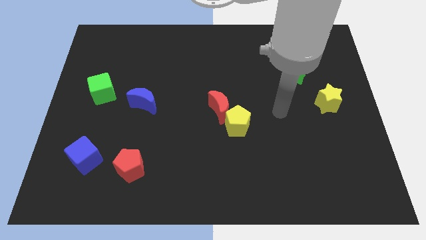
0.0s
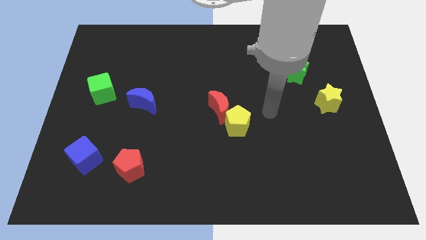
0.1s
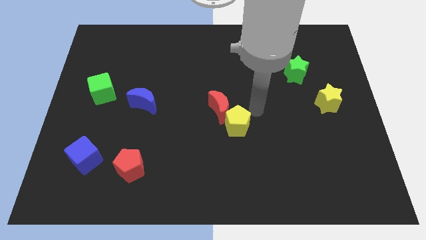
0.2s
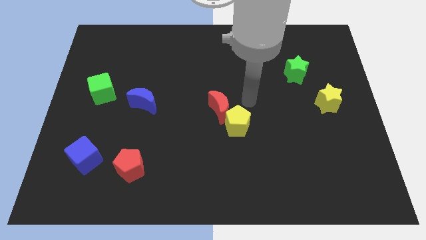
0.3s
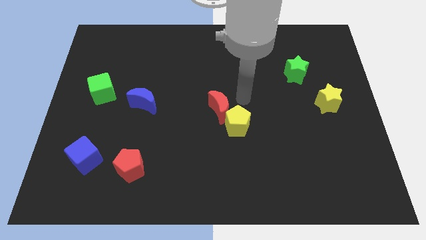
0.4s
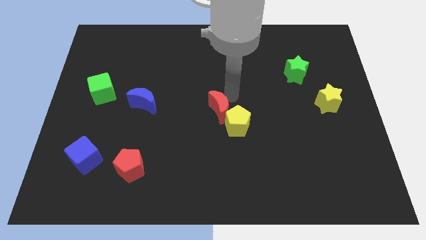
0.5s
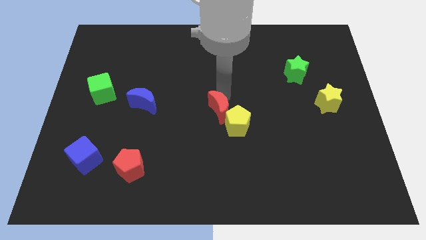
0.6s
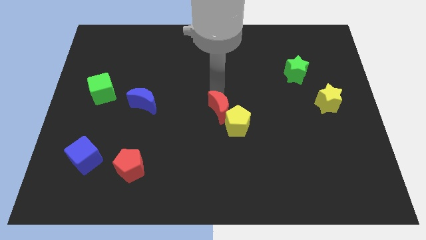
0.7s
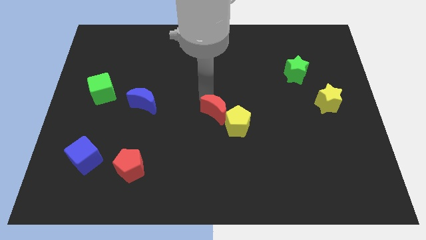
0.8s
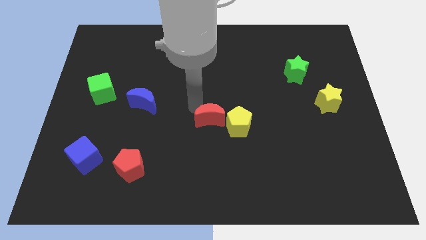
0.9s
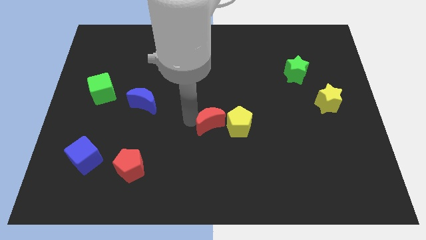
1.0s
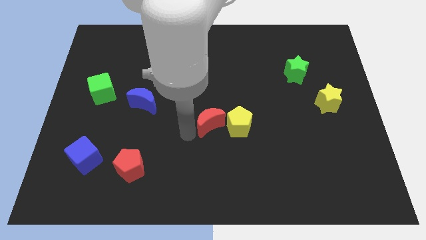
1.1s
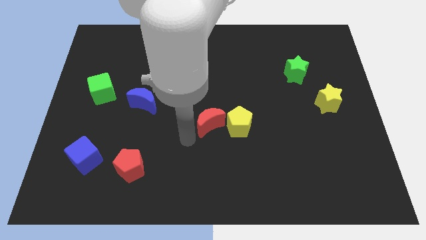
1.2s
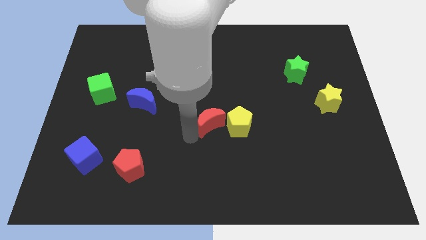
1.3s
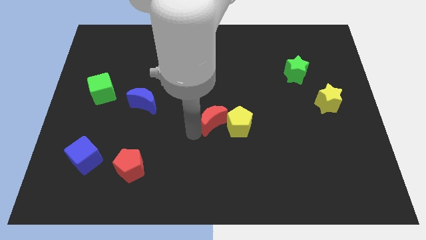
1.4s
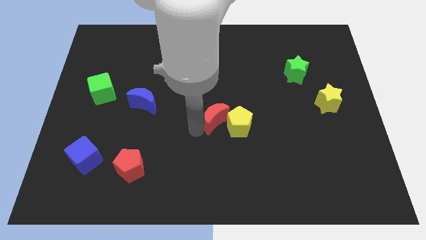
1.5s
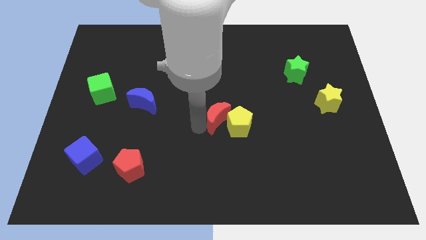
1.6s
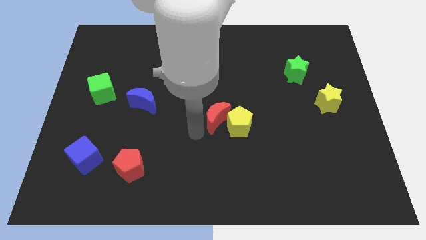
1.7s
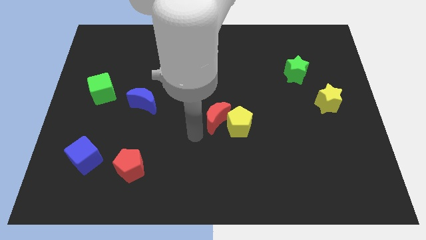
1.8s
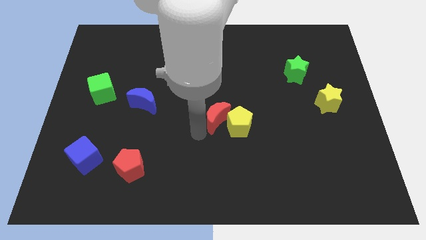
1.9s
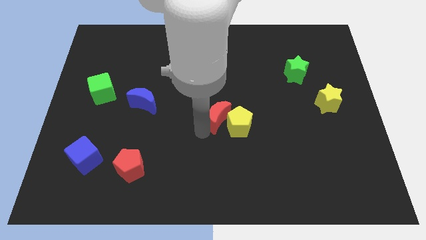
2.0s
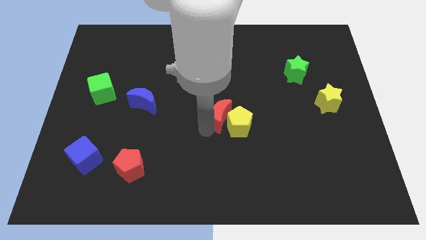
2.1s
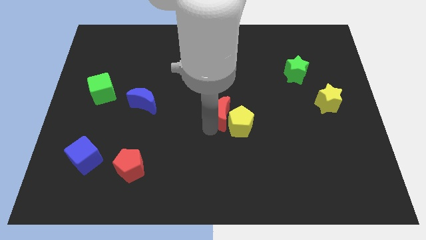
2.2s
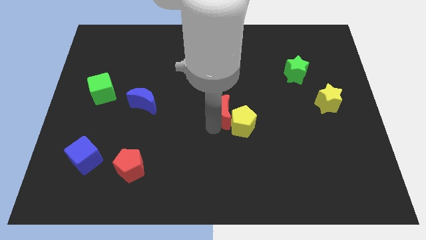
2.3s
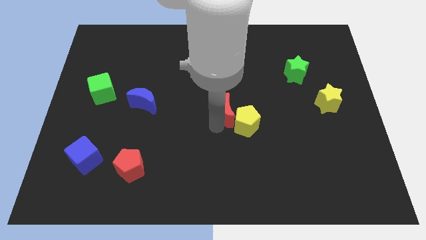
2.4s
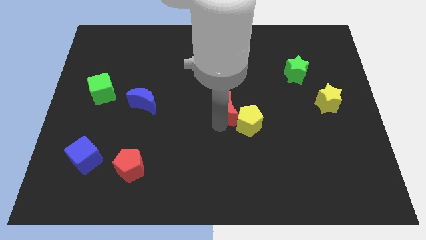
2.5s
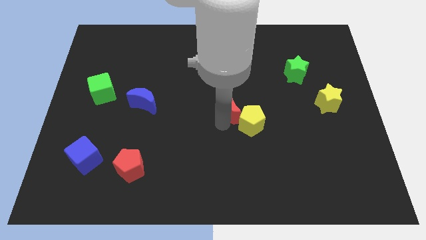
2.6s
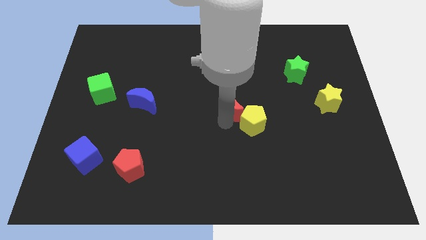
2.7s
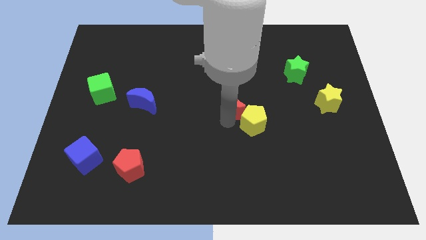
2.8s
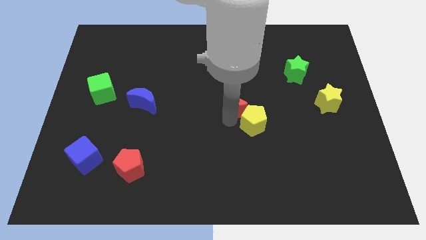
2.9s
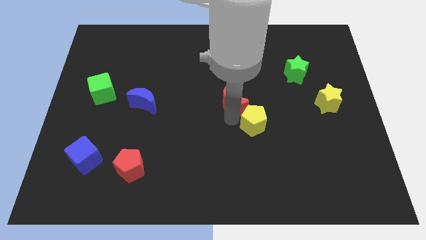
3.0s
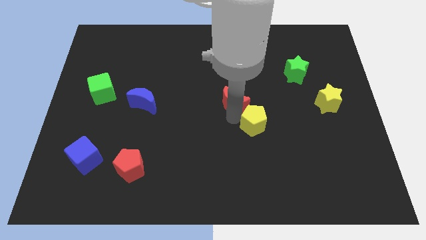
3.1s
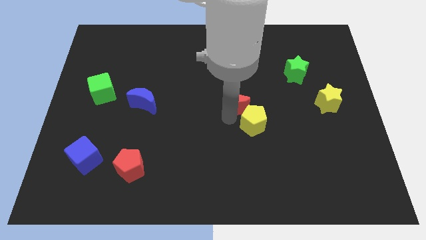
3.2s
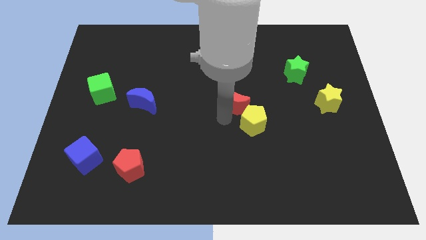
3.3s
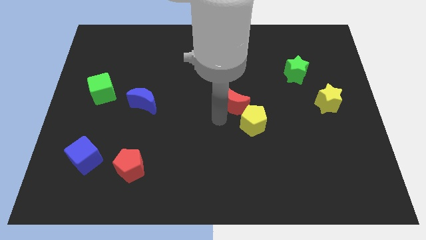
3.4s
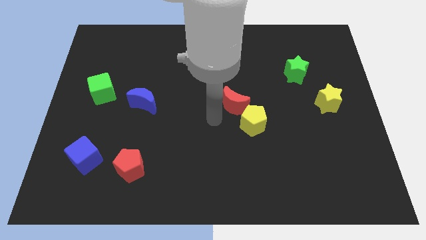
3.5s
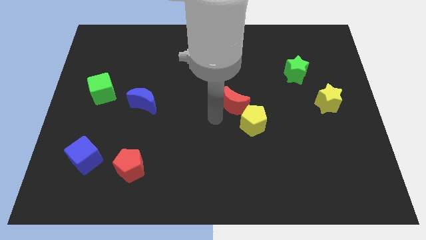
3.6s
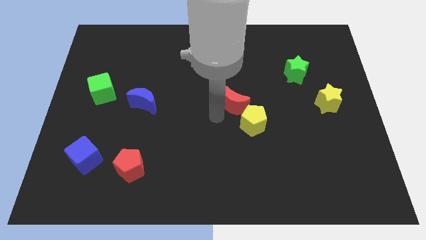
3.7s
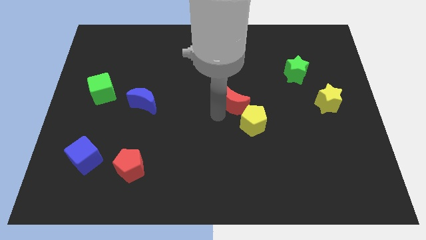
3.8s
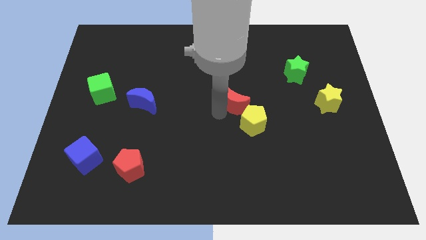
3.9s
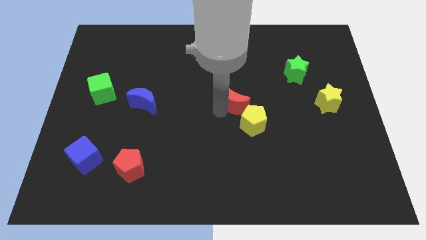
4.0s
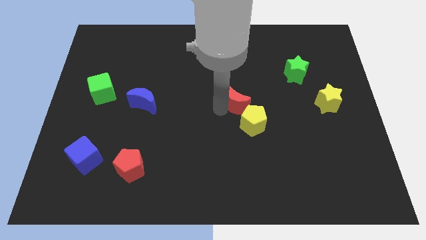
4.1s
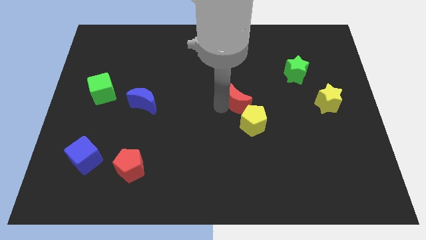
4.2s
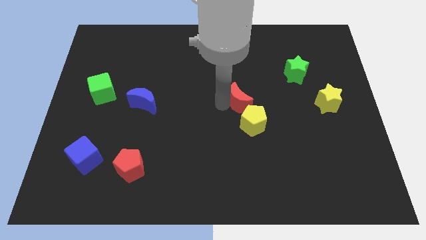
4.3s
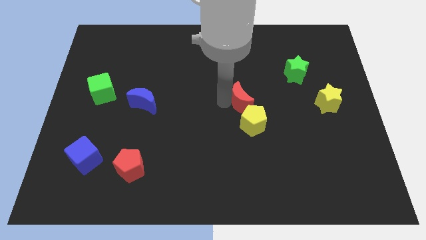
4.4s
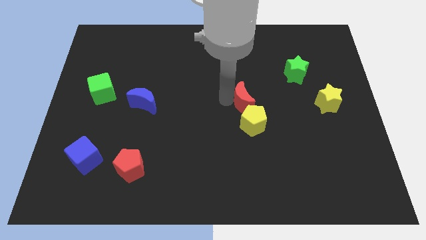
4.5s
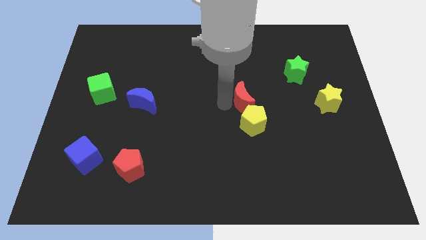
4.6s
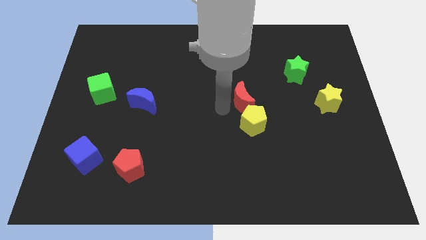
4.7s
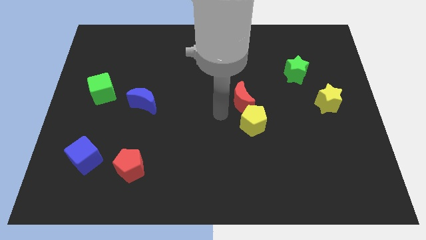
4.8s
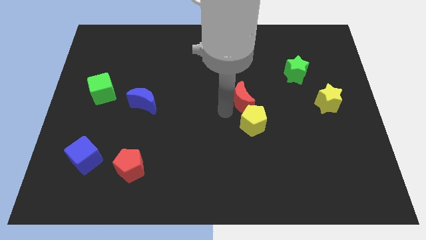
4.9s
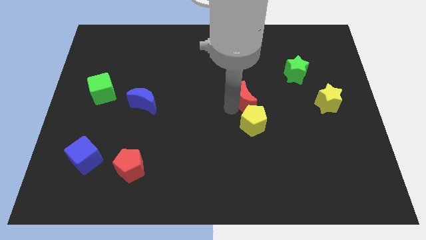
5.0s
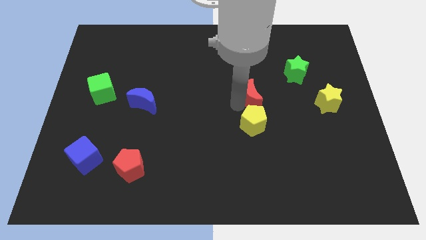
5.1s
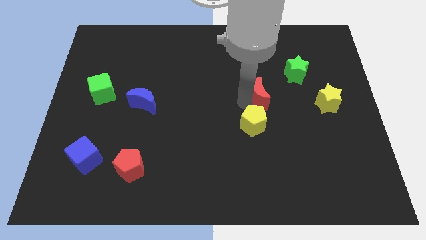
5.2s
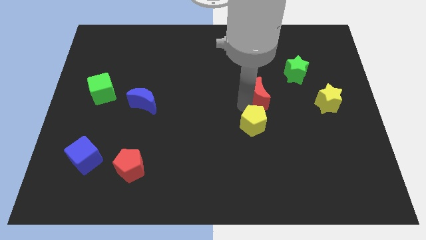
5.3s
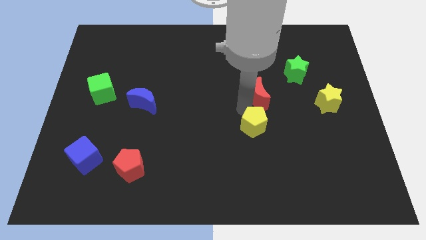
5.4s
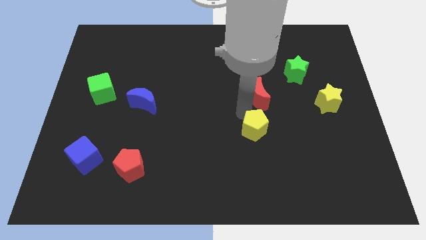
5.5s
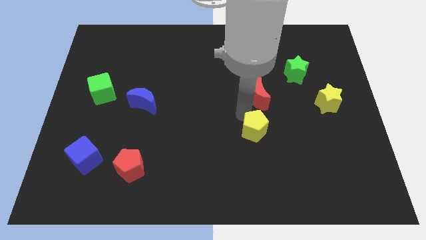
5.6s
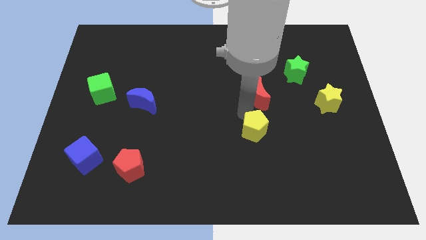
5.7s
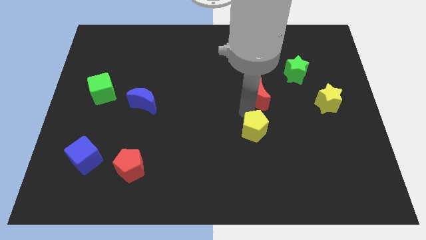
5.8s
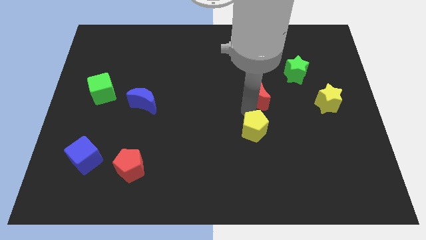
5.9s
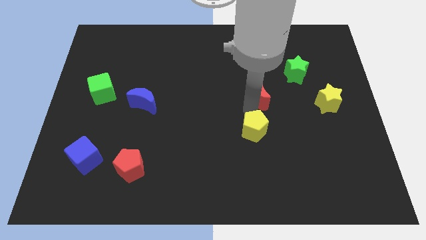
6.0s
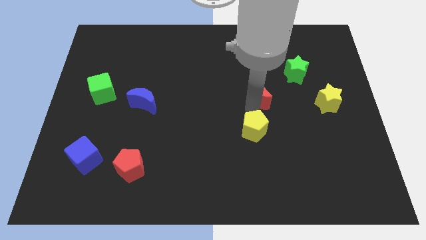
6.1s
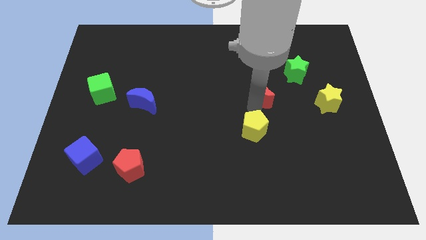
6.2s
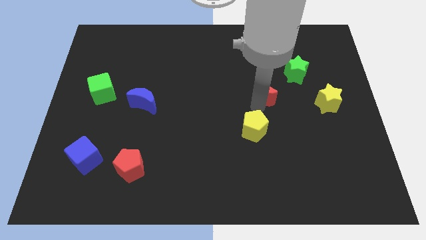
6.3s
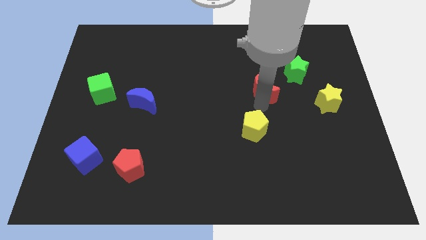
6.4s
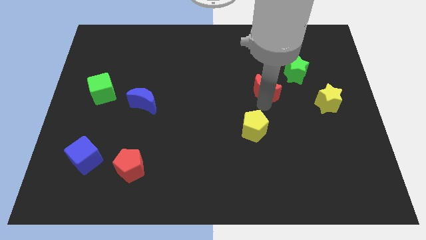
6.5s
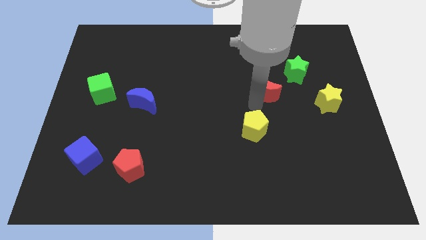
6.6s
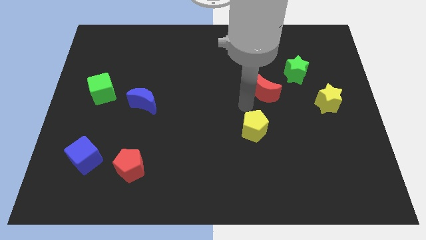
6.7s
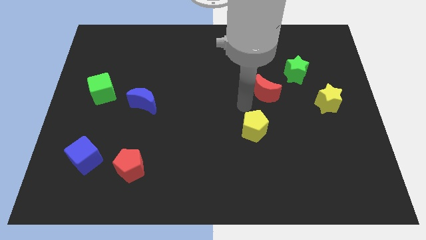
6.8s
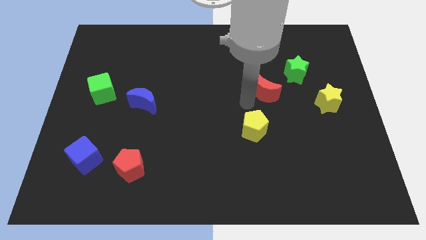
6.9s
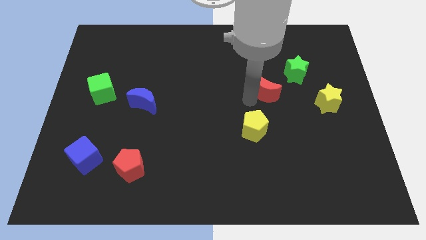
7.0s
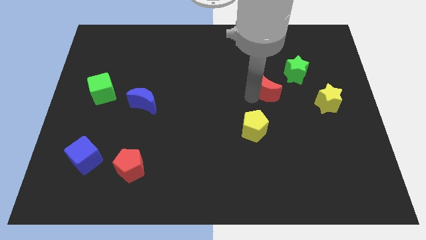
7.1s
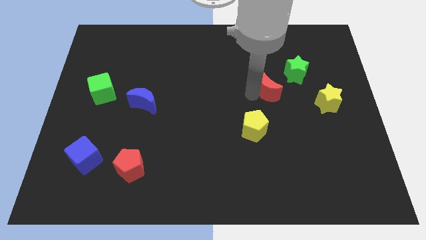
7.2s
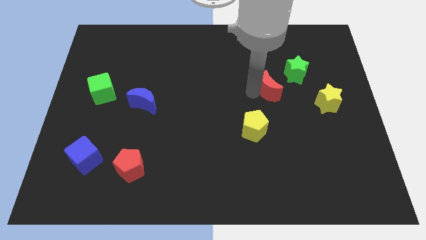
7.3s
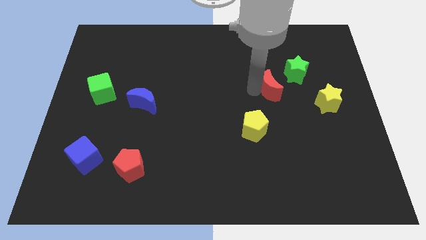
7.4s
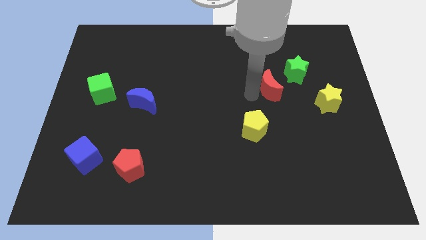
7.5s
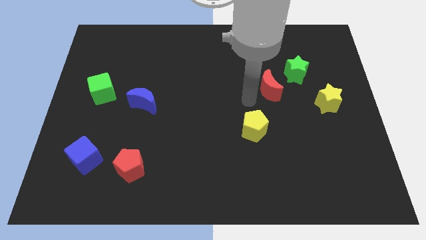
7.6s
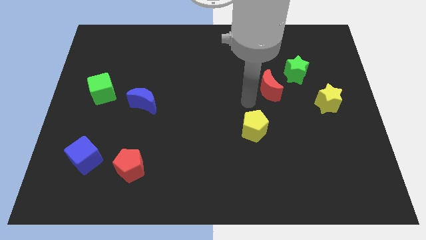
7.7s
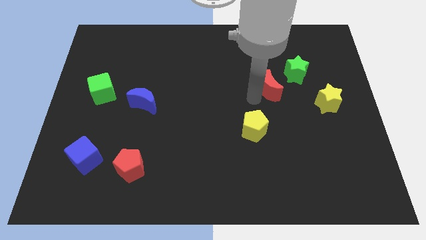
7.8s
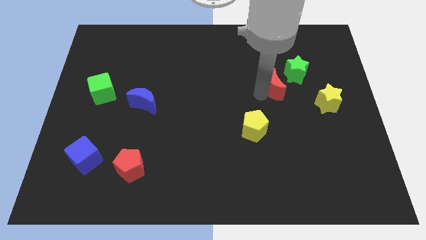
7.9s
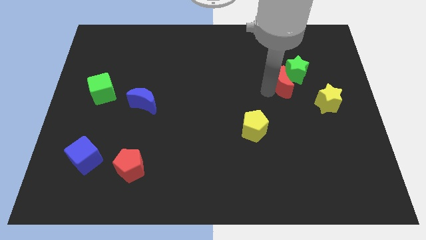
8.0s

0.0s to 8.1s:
slide the red moon close to the green star
